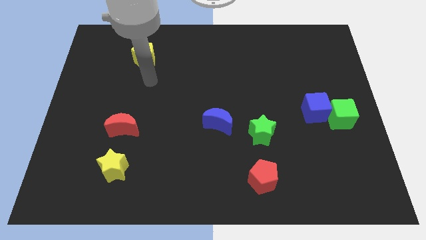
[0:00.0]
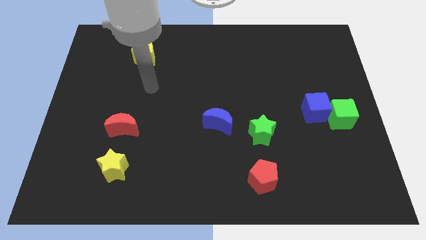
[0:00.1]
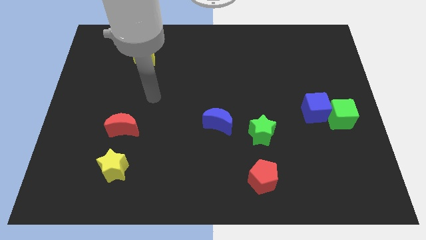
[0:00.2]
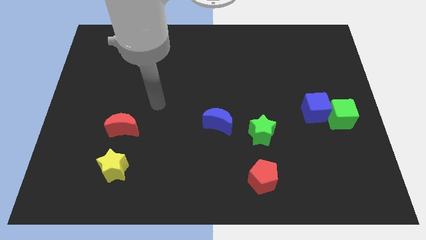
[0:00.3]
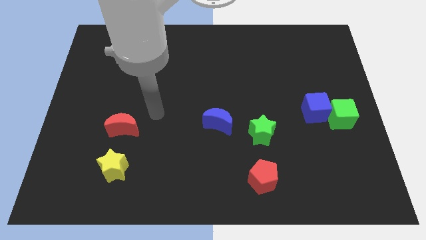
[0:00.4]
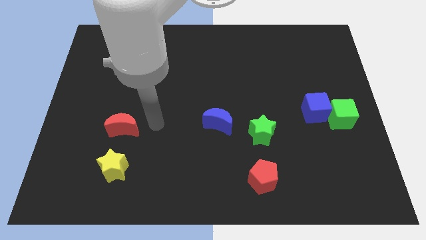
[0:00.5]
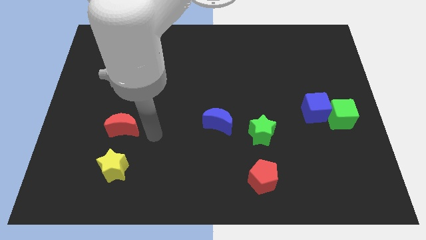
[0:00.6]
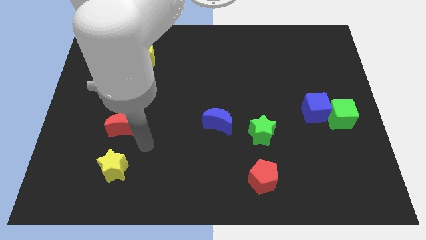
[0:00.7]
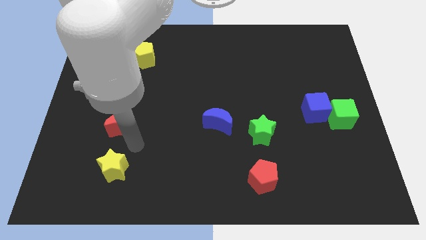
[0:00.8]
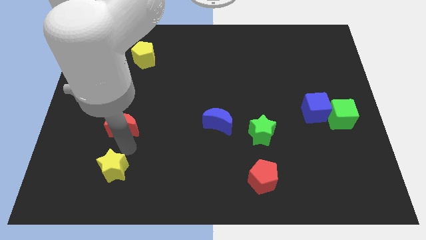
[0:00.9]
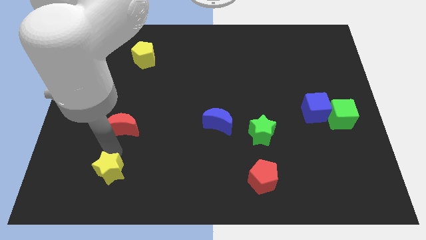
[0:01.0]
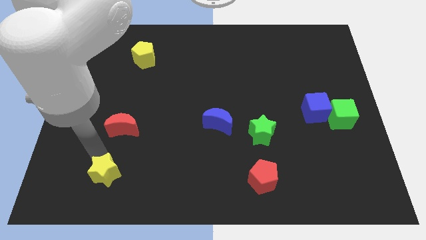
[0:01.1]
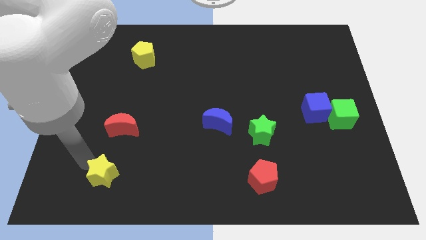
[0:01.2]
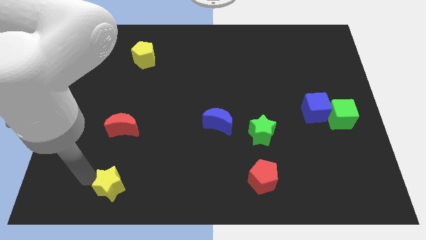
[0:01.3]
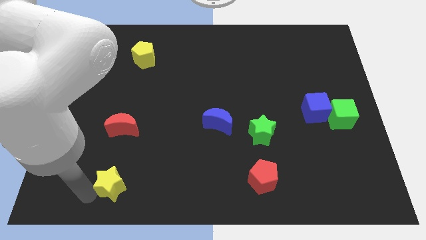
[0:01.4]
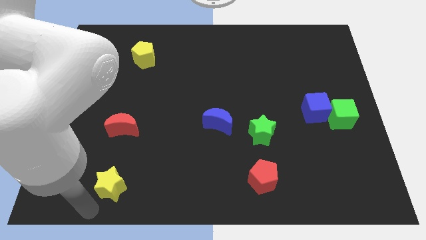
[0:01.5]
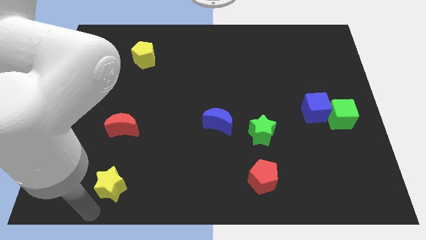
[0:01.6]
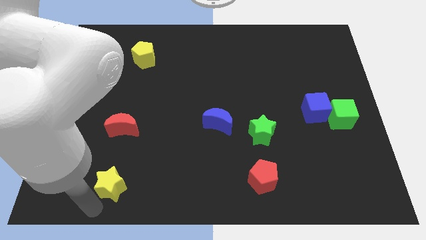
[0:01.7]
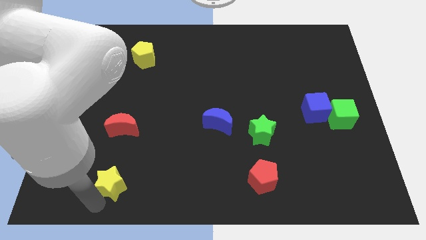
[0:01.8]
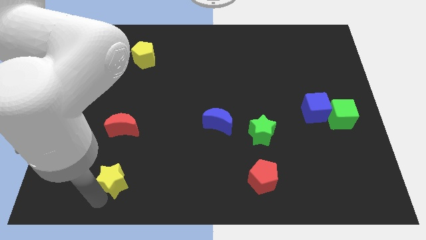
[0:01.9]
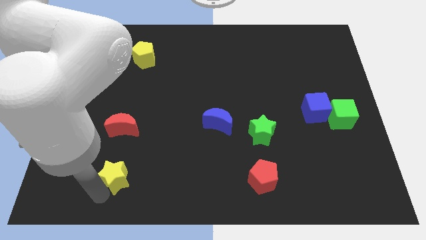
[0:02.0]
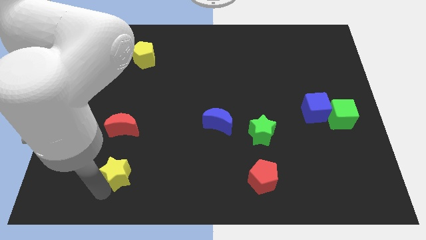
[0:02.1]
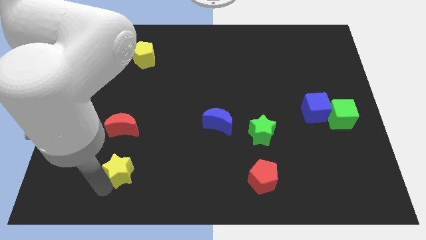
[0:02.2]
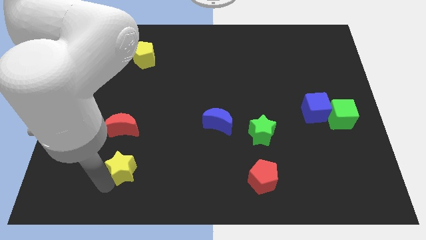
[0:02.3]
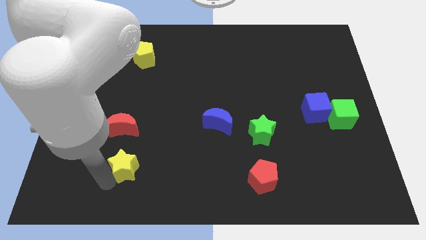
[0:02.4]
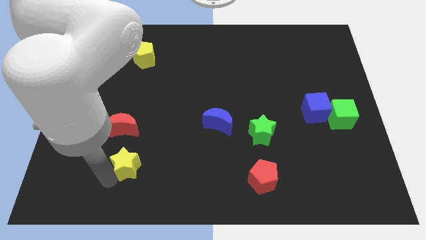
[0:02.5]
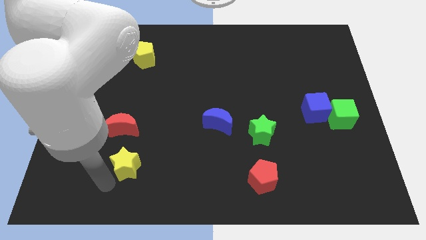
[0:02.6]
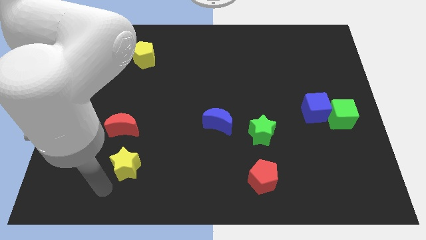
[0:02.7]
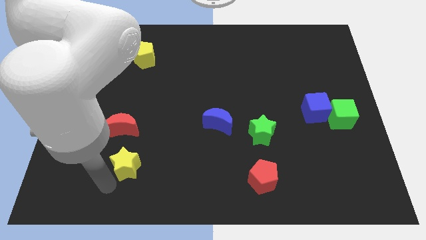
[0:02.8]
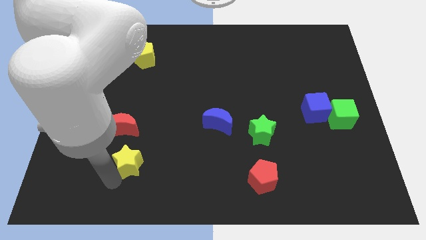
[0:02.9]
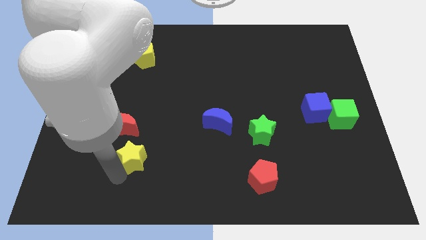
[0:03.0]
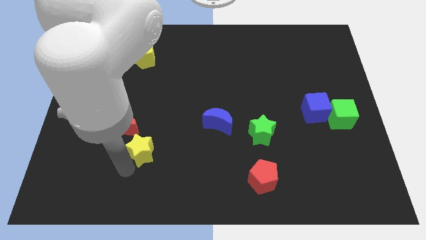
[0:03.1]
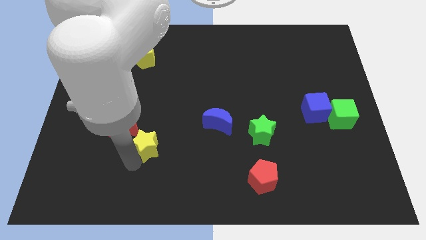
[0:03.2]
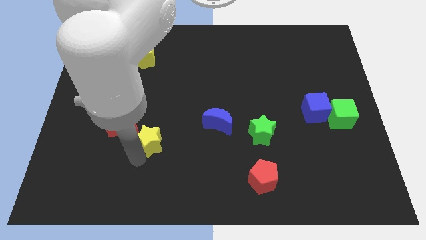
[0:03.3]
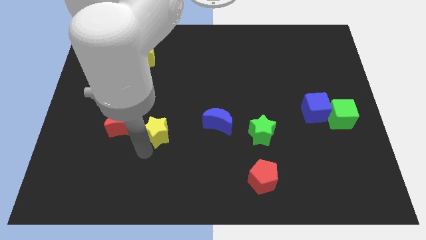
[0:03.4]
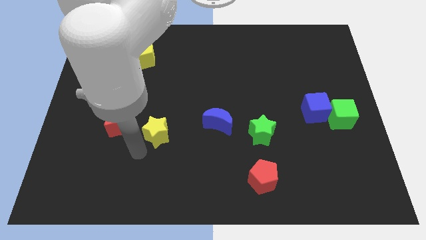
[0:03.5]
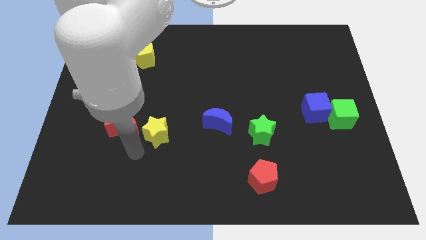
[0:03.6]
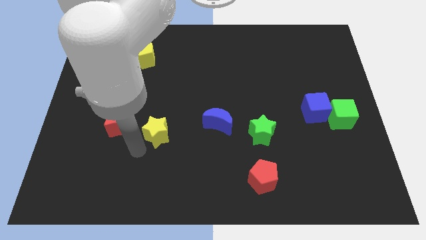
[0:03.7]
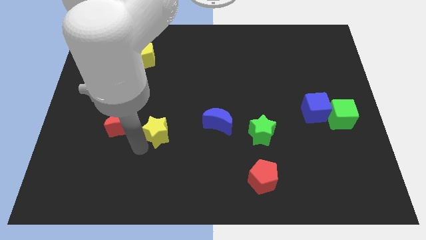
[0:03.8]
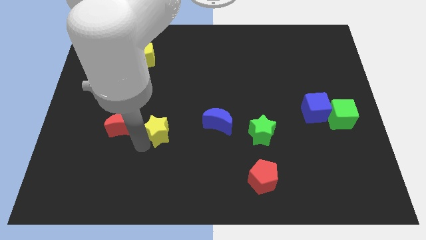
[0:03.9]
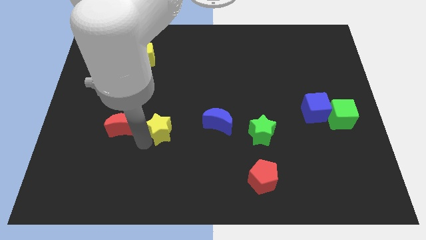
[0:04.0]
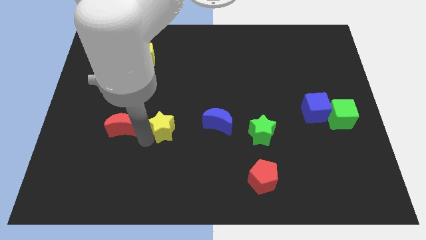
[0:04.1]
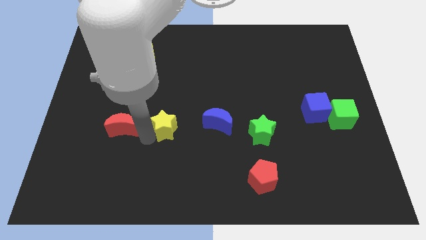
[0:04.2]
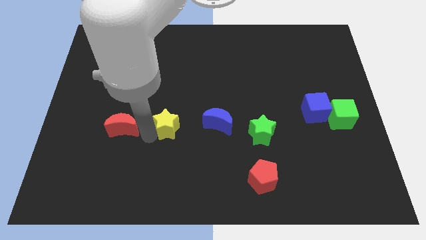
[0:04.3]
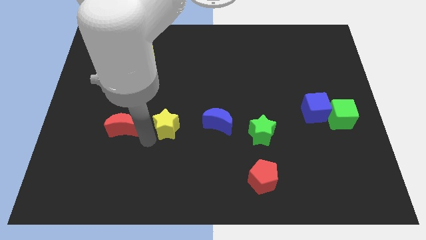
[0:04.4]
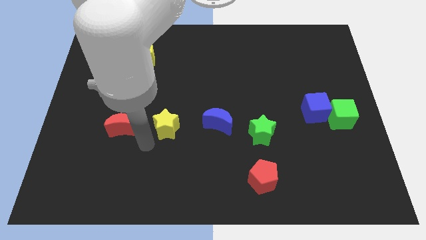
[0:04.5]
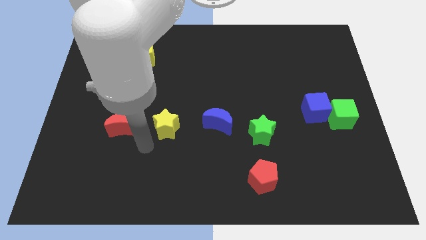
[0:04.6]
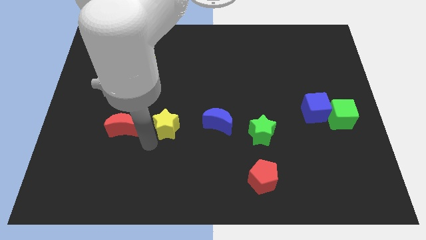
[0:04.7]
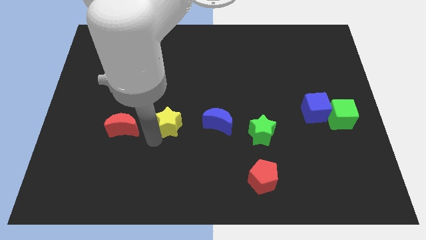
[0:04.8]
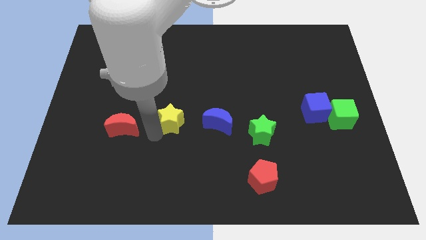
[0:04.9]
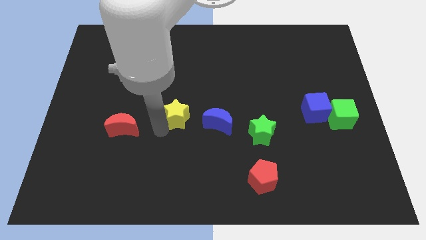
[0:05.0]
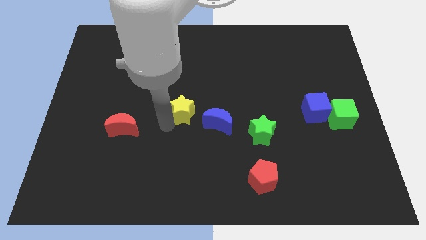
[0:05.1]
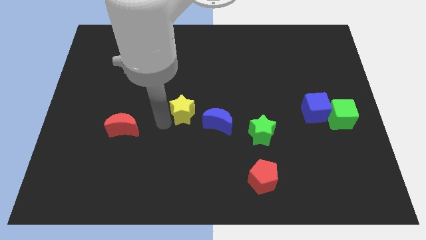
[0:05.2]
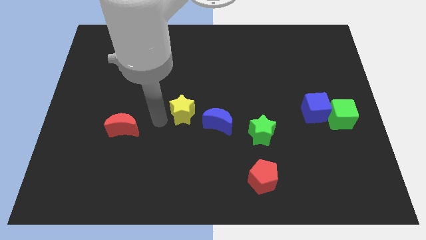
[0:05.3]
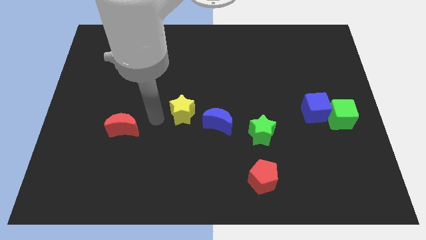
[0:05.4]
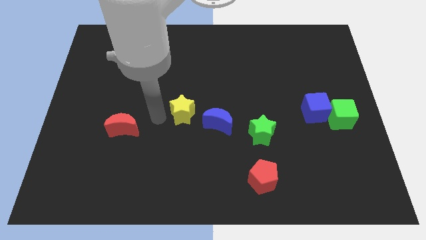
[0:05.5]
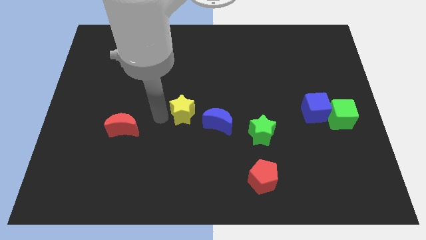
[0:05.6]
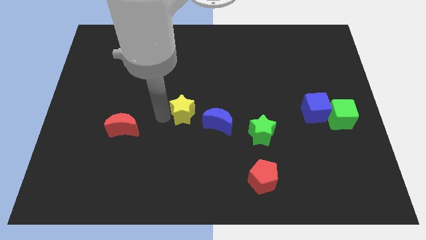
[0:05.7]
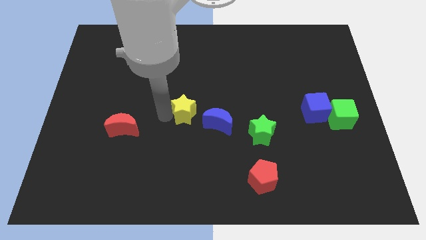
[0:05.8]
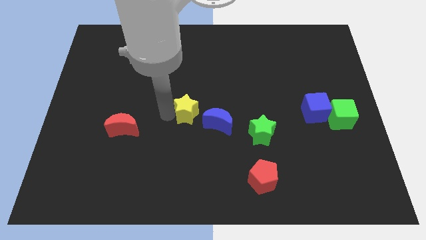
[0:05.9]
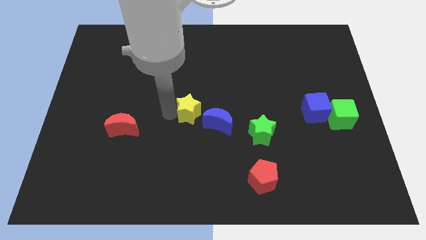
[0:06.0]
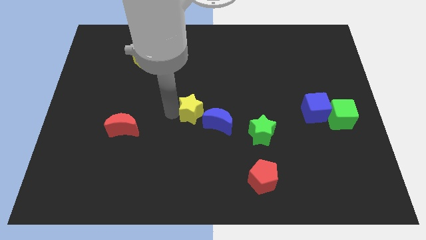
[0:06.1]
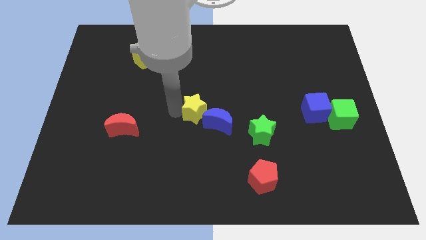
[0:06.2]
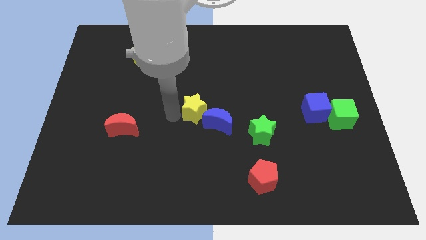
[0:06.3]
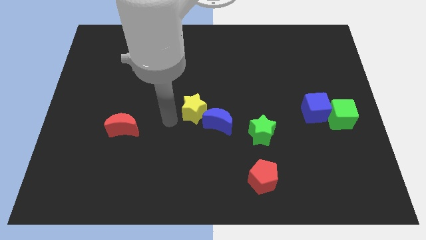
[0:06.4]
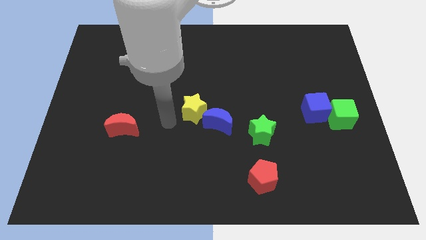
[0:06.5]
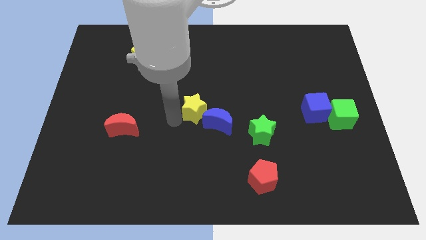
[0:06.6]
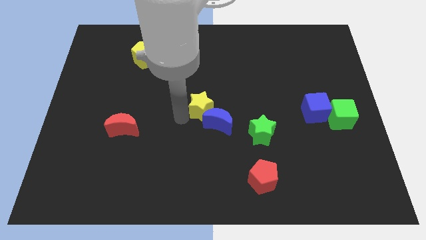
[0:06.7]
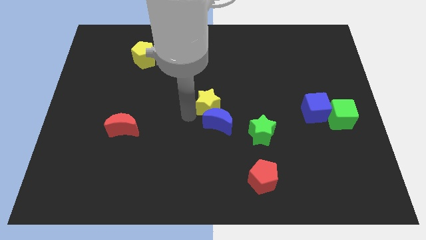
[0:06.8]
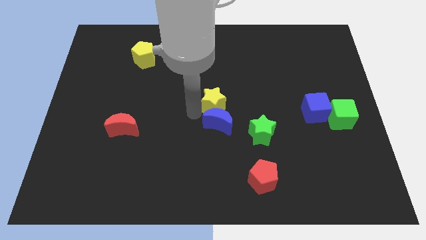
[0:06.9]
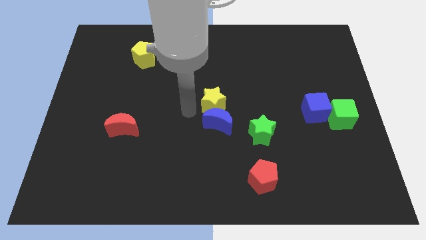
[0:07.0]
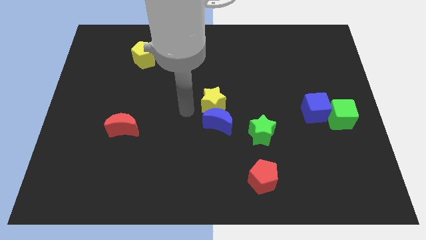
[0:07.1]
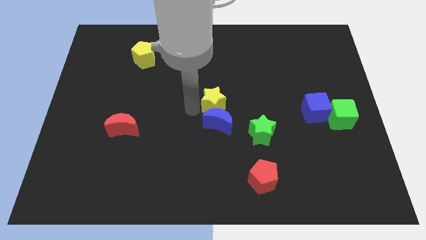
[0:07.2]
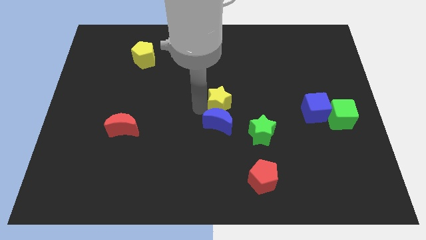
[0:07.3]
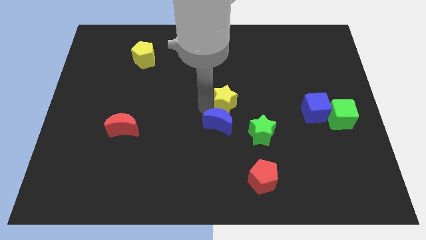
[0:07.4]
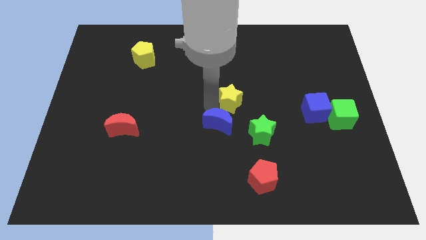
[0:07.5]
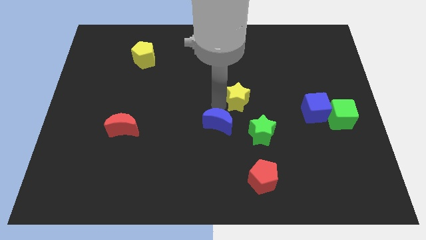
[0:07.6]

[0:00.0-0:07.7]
put the yellow star above the green star
